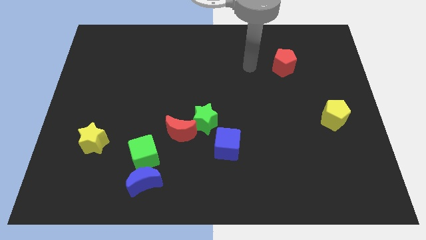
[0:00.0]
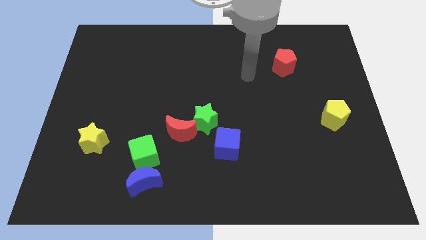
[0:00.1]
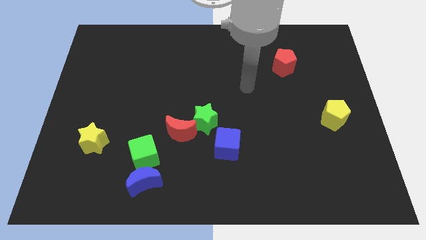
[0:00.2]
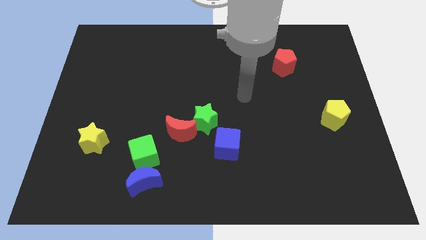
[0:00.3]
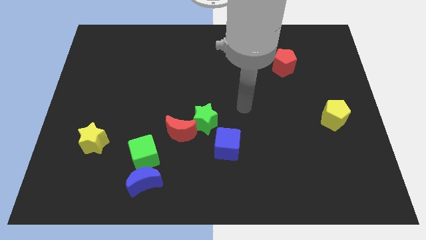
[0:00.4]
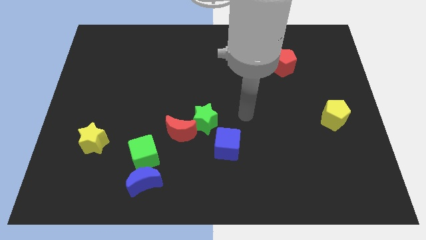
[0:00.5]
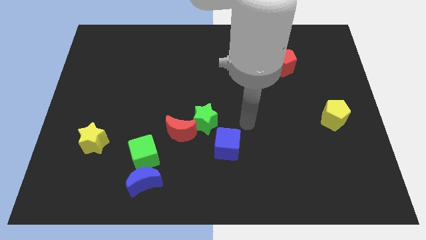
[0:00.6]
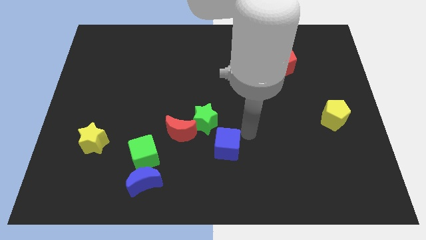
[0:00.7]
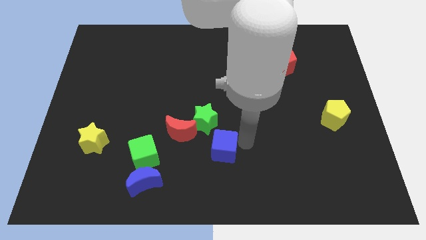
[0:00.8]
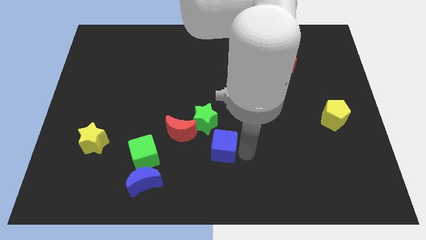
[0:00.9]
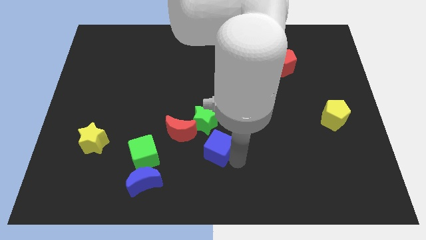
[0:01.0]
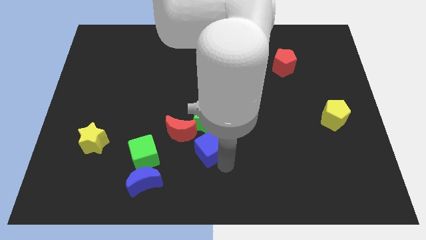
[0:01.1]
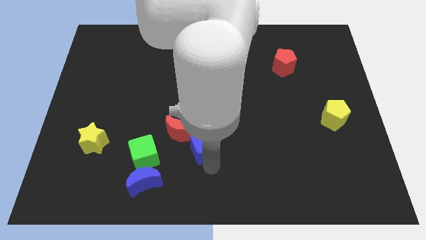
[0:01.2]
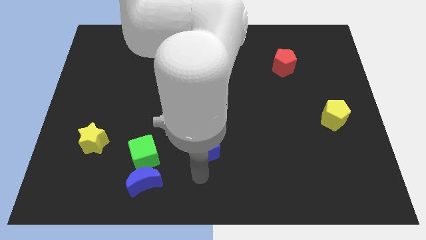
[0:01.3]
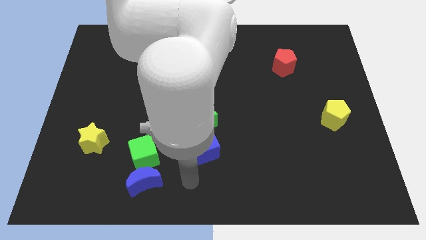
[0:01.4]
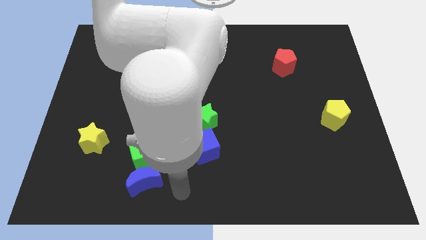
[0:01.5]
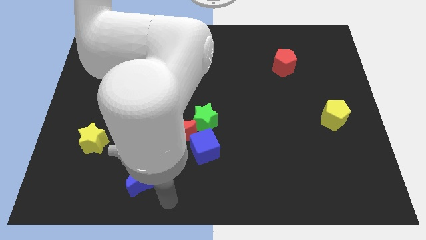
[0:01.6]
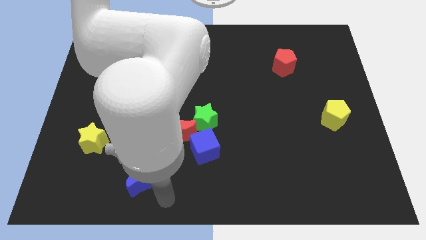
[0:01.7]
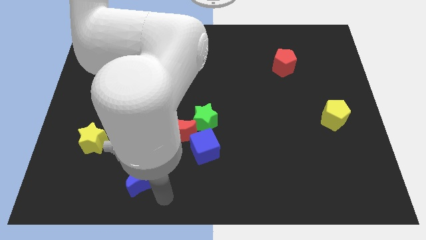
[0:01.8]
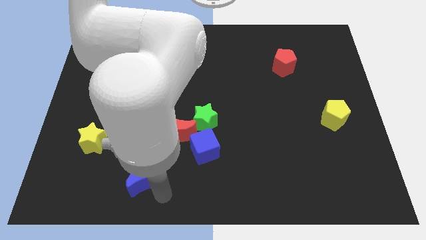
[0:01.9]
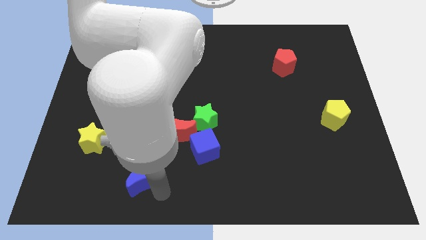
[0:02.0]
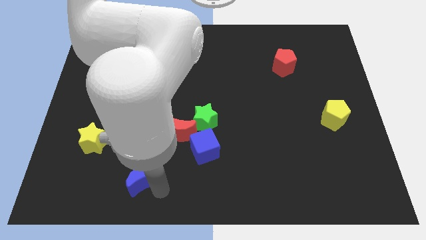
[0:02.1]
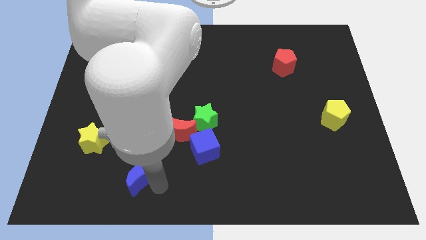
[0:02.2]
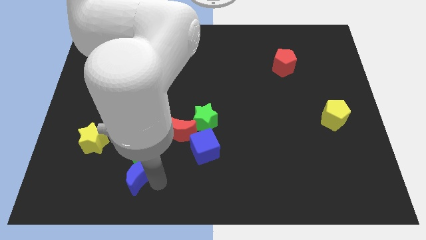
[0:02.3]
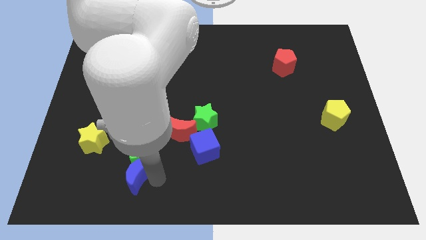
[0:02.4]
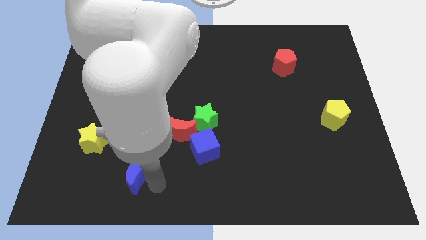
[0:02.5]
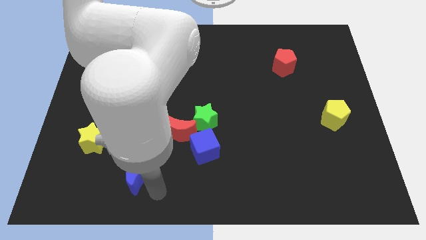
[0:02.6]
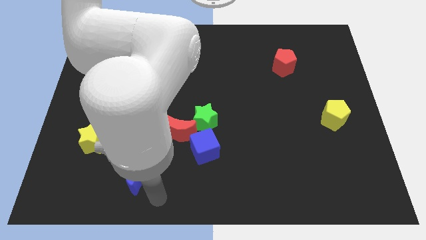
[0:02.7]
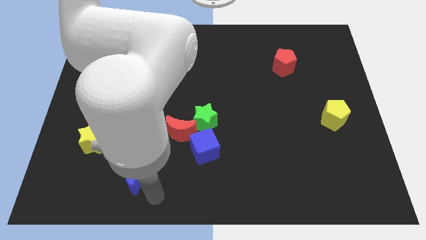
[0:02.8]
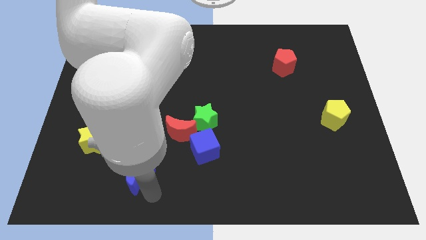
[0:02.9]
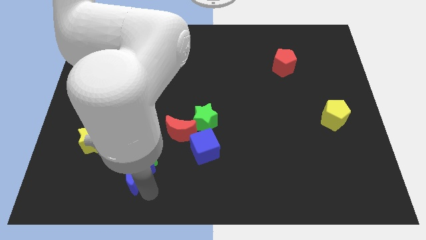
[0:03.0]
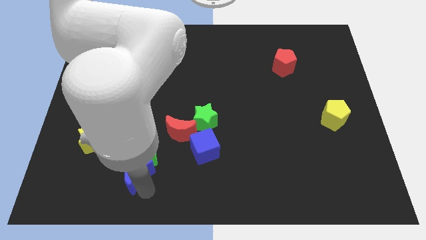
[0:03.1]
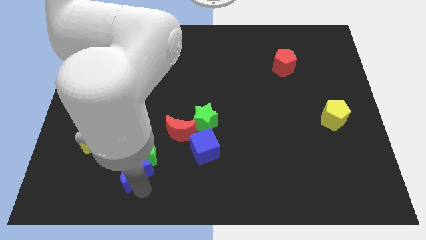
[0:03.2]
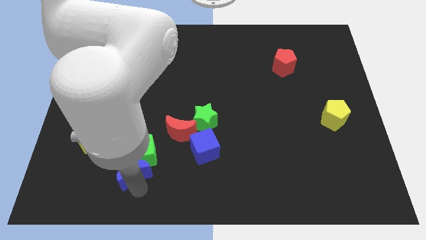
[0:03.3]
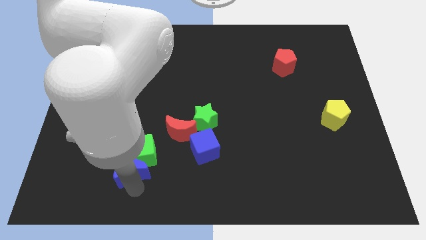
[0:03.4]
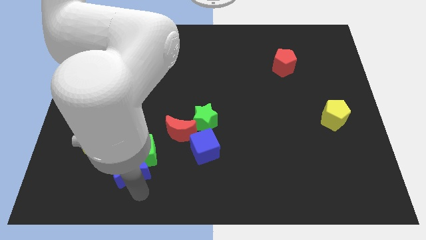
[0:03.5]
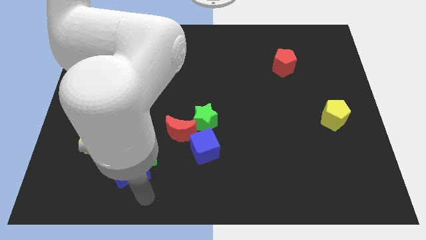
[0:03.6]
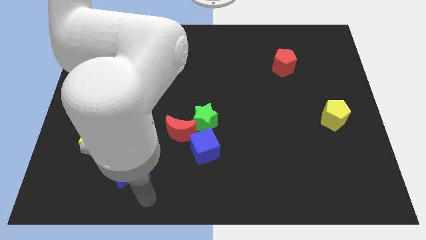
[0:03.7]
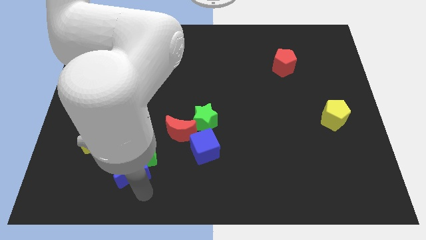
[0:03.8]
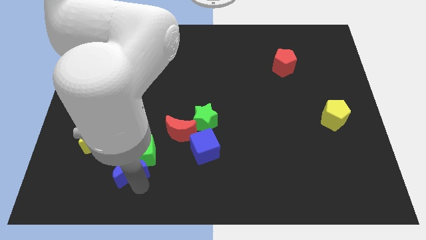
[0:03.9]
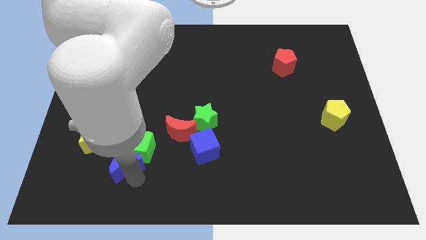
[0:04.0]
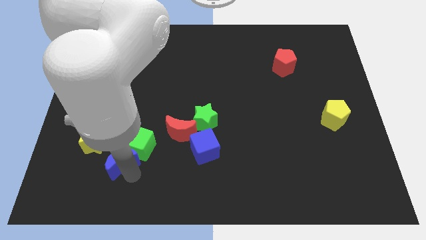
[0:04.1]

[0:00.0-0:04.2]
slightly move the blue moon up and left diagonally

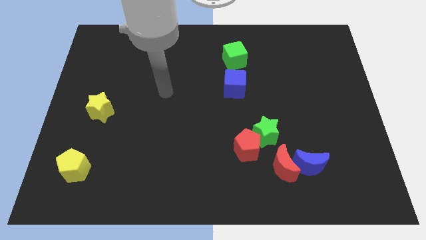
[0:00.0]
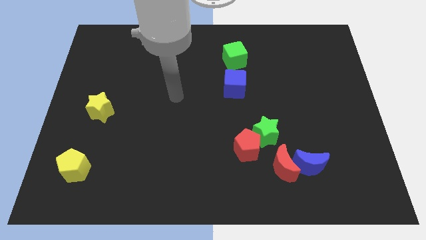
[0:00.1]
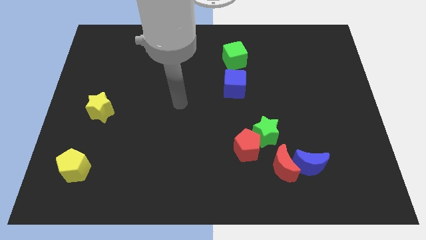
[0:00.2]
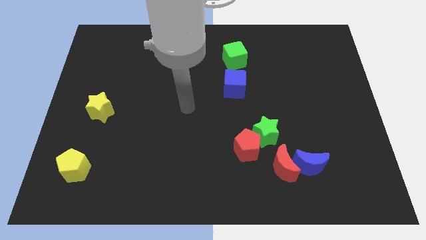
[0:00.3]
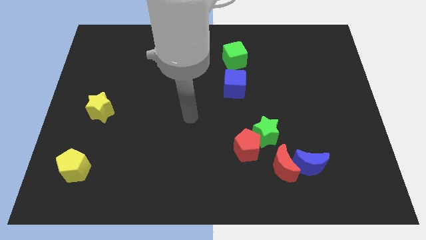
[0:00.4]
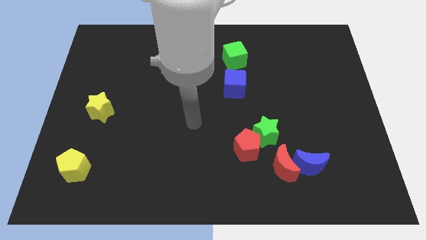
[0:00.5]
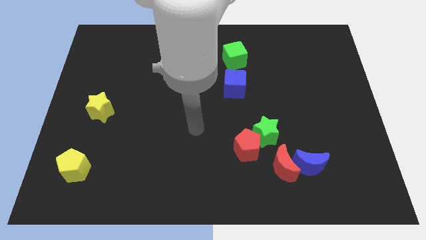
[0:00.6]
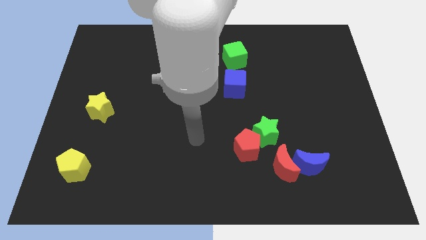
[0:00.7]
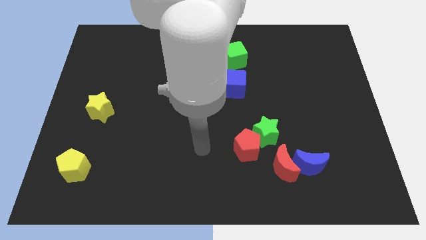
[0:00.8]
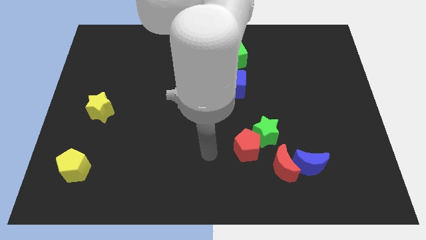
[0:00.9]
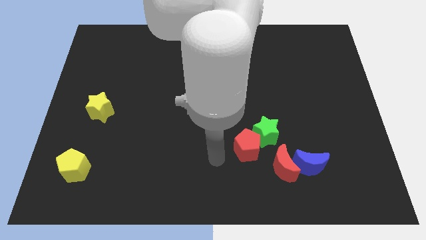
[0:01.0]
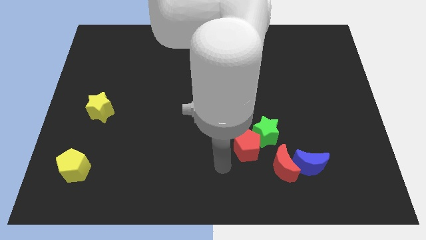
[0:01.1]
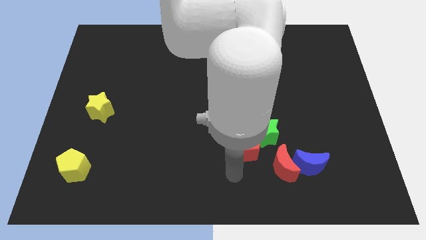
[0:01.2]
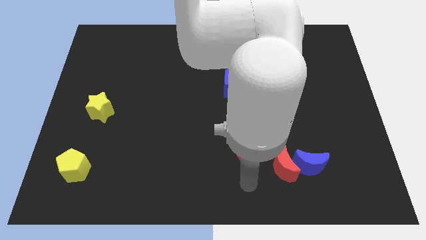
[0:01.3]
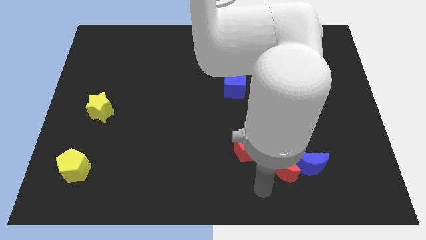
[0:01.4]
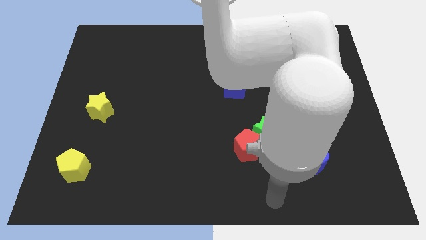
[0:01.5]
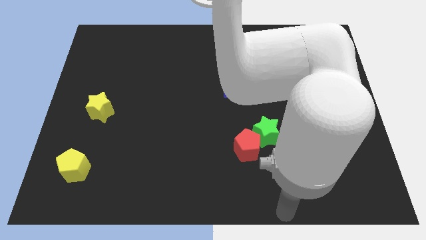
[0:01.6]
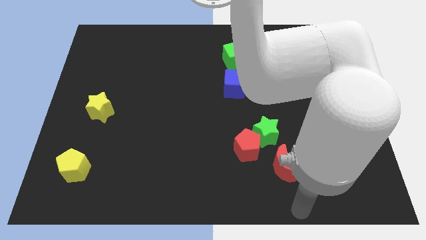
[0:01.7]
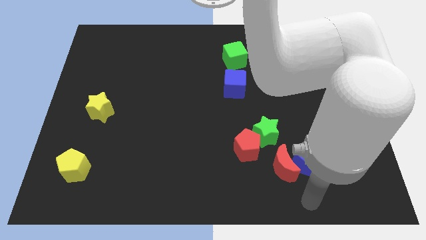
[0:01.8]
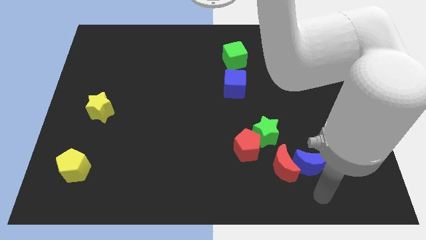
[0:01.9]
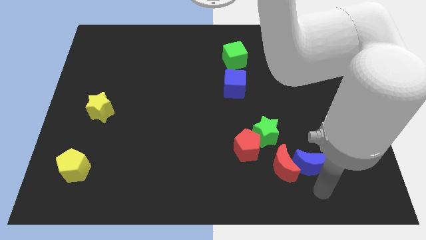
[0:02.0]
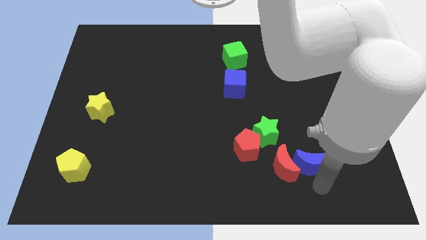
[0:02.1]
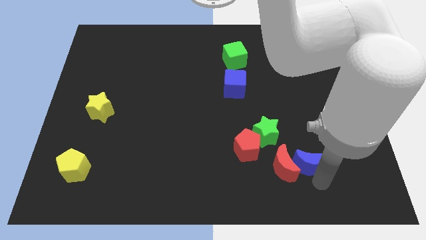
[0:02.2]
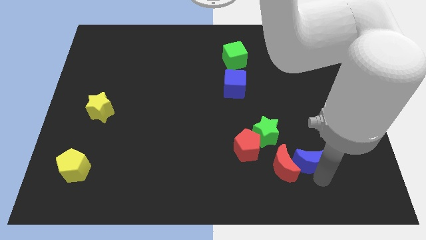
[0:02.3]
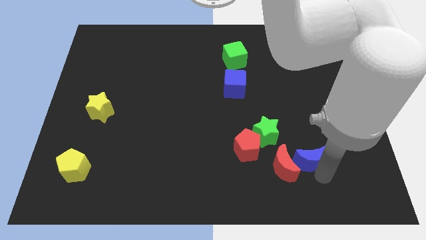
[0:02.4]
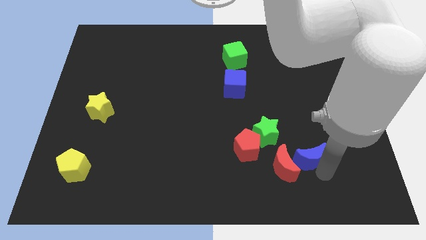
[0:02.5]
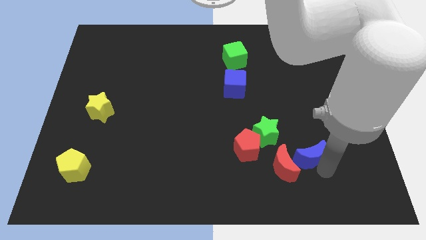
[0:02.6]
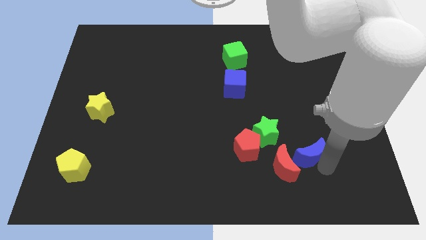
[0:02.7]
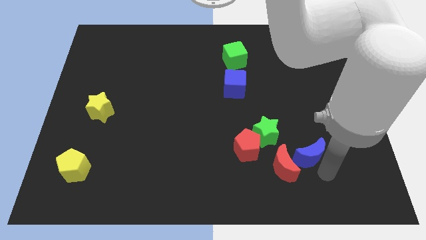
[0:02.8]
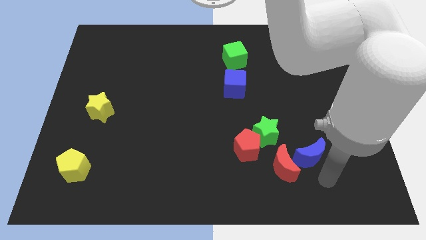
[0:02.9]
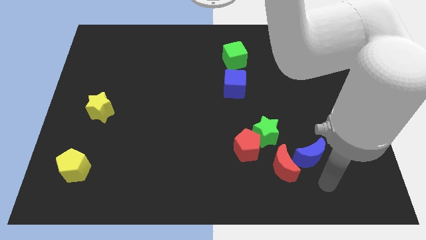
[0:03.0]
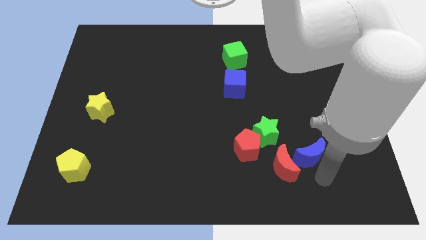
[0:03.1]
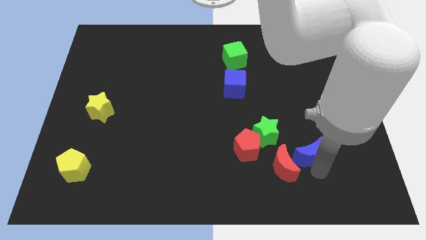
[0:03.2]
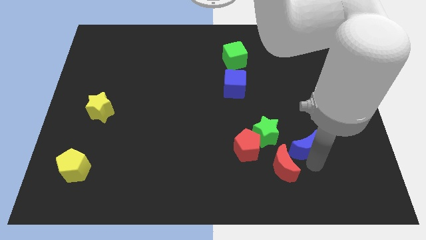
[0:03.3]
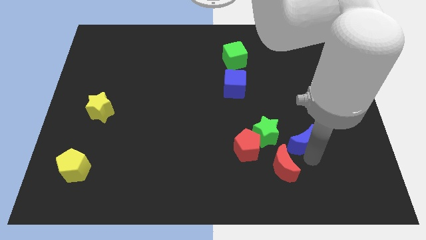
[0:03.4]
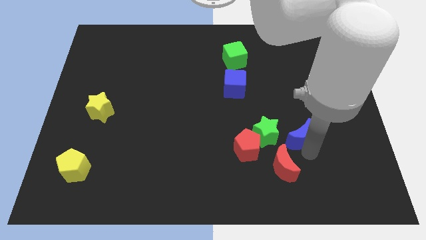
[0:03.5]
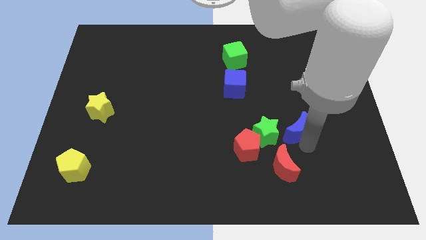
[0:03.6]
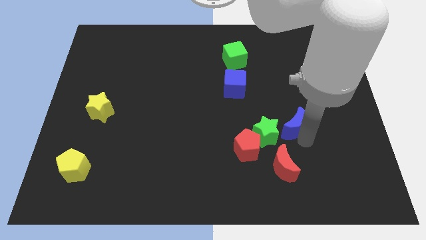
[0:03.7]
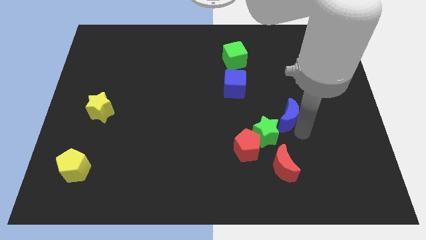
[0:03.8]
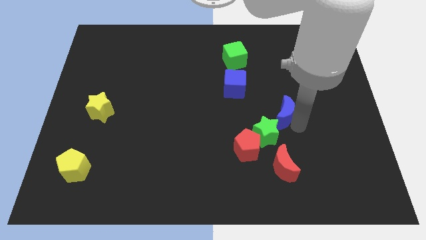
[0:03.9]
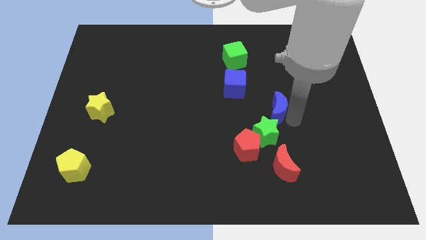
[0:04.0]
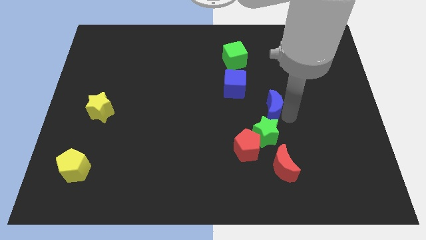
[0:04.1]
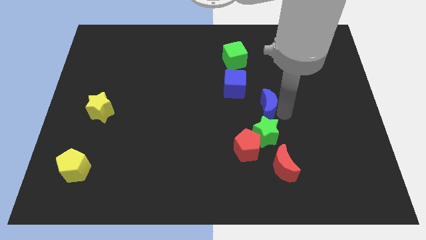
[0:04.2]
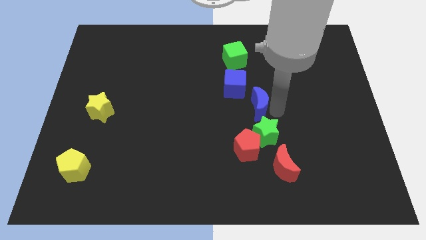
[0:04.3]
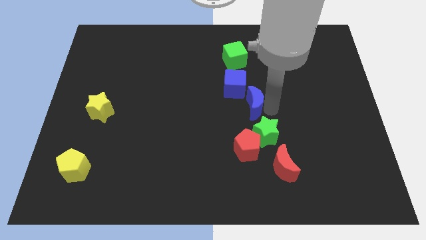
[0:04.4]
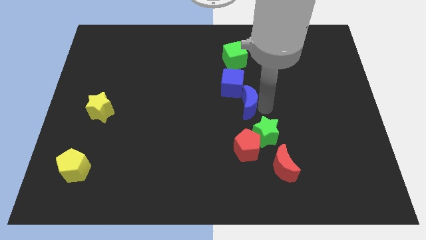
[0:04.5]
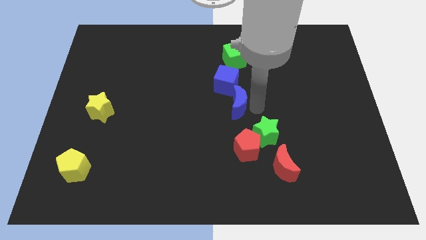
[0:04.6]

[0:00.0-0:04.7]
slide the blue moon upwards and to the left
